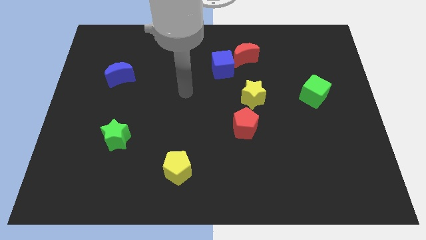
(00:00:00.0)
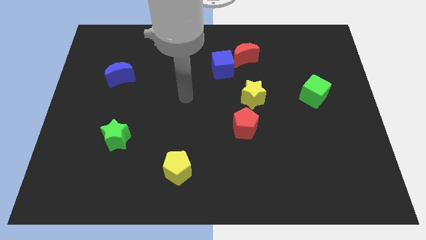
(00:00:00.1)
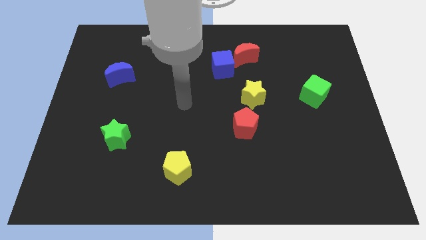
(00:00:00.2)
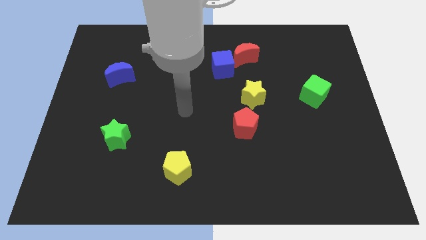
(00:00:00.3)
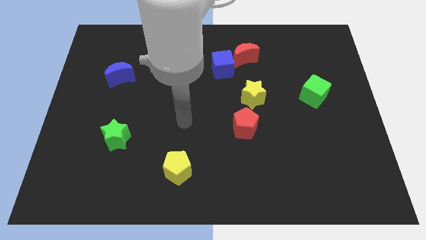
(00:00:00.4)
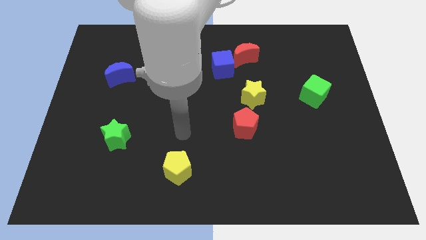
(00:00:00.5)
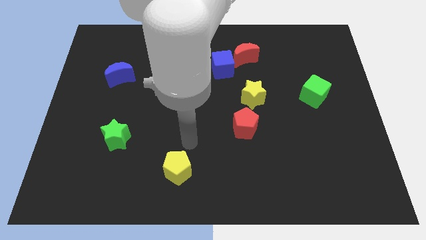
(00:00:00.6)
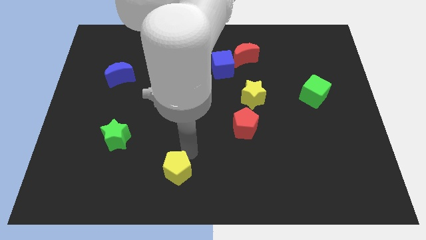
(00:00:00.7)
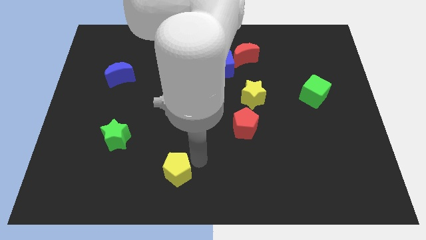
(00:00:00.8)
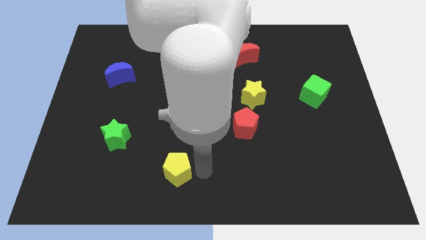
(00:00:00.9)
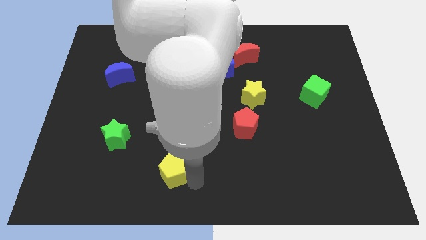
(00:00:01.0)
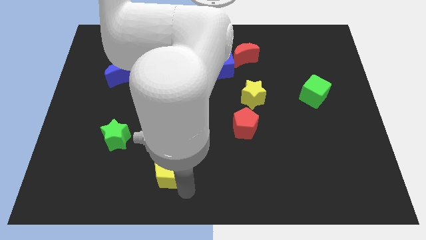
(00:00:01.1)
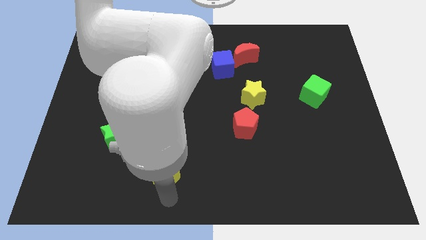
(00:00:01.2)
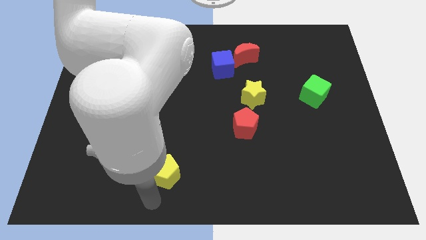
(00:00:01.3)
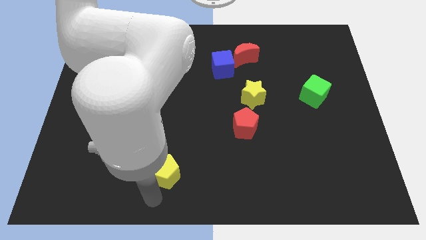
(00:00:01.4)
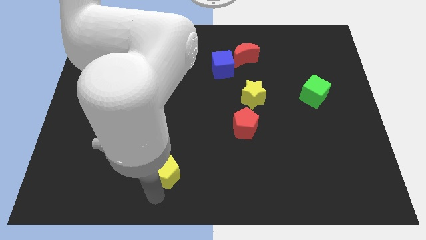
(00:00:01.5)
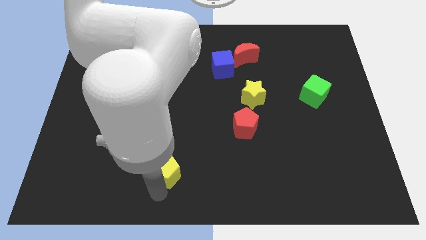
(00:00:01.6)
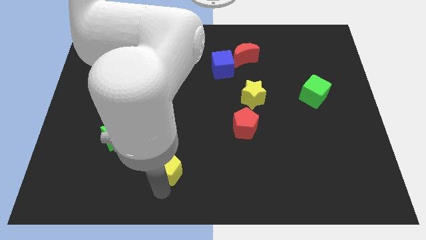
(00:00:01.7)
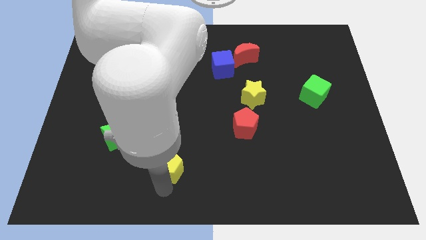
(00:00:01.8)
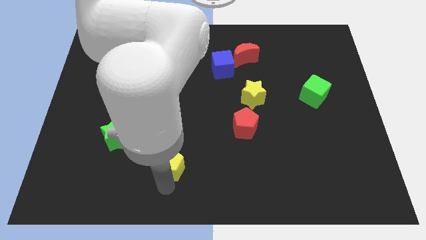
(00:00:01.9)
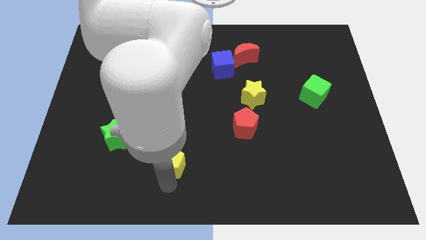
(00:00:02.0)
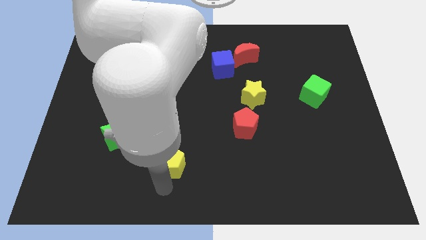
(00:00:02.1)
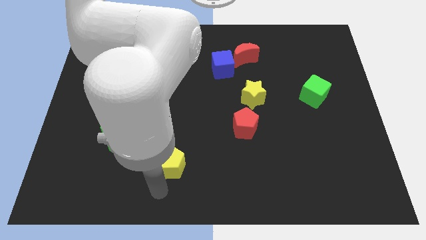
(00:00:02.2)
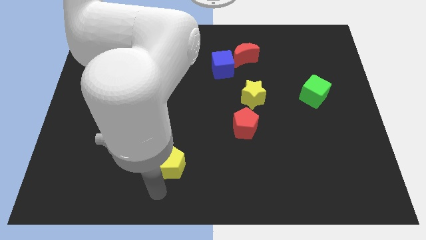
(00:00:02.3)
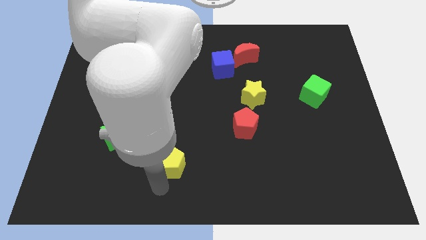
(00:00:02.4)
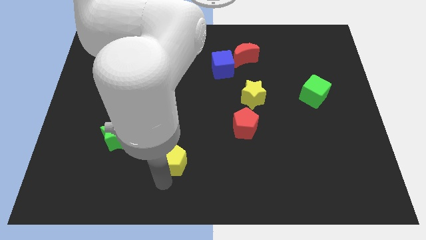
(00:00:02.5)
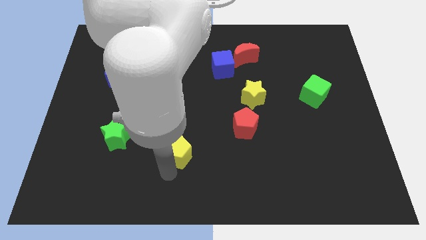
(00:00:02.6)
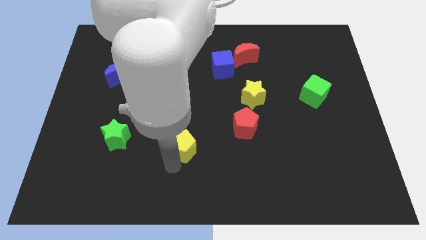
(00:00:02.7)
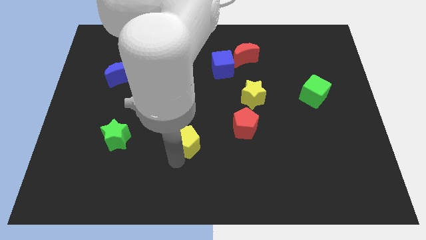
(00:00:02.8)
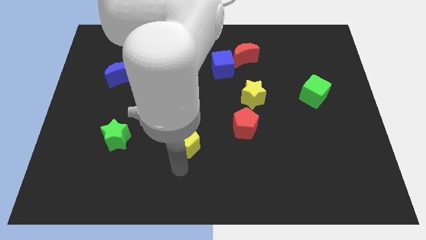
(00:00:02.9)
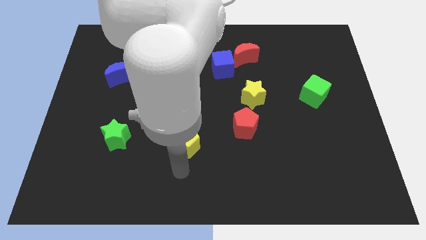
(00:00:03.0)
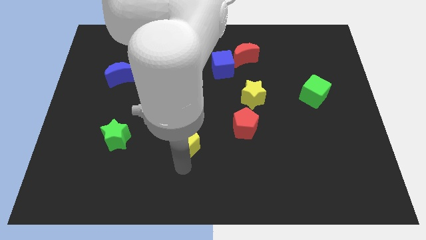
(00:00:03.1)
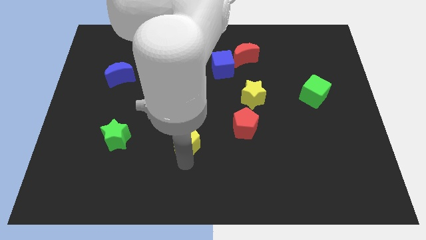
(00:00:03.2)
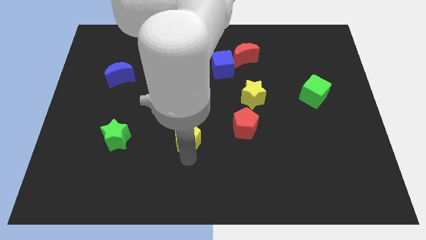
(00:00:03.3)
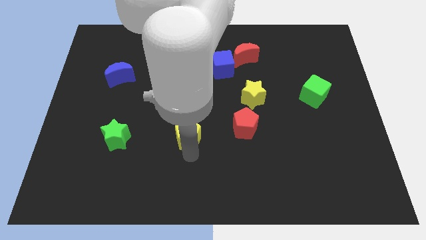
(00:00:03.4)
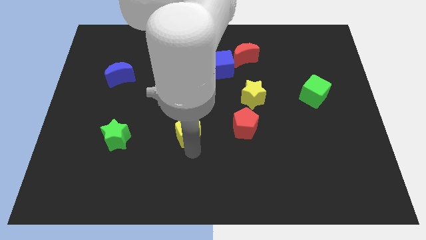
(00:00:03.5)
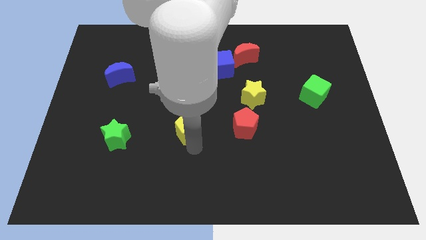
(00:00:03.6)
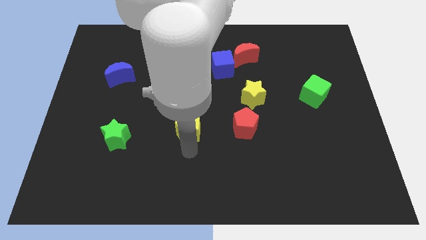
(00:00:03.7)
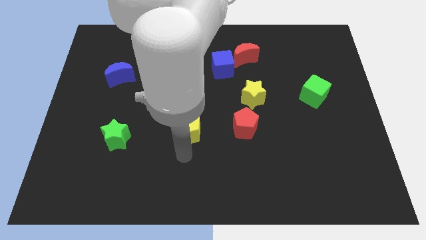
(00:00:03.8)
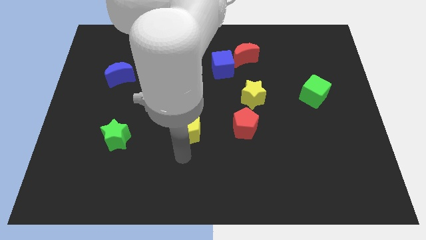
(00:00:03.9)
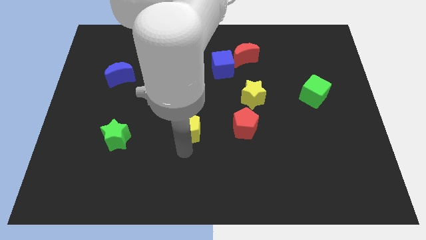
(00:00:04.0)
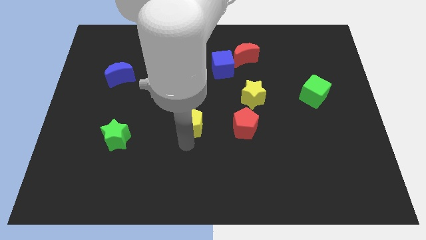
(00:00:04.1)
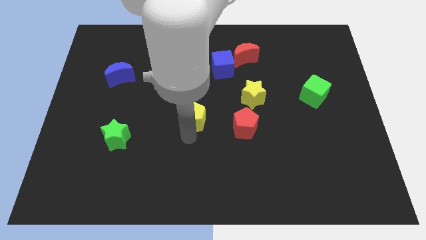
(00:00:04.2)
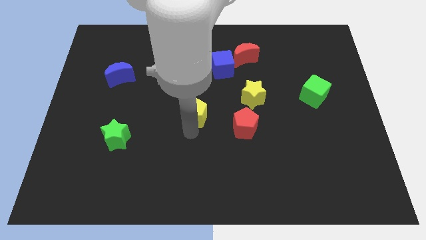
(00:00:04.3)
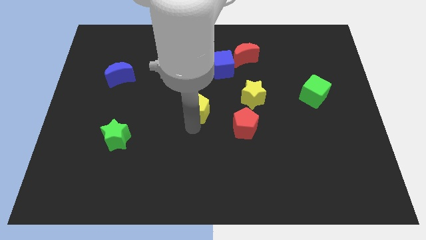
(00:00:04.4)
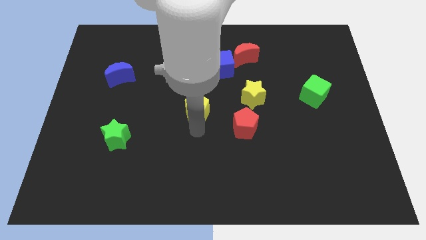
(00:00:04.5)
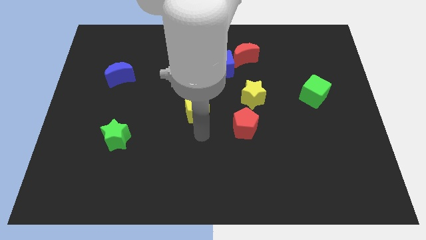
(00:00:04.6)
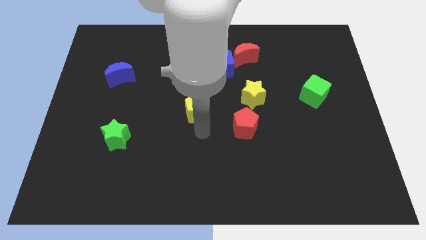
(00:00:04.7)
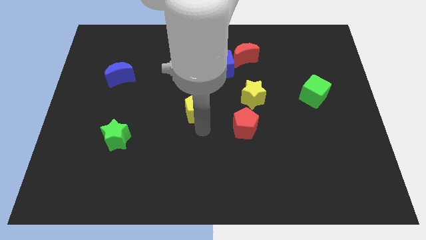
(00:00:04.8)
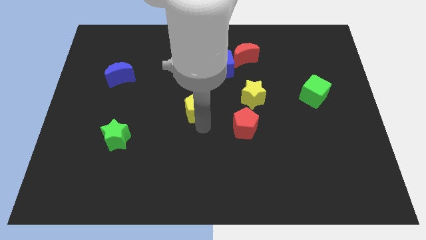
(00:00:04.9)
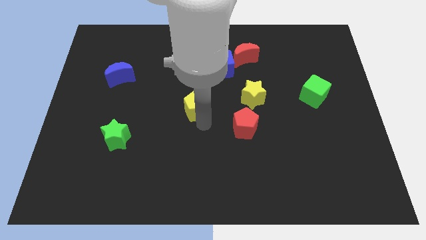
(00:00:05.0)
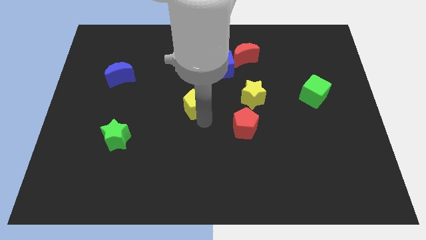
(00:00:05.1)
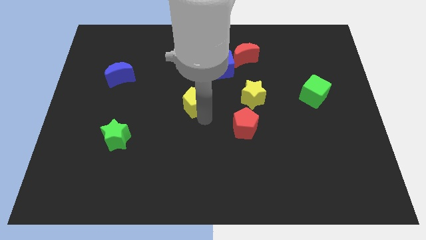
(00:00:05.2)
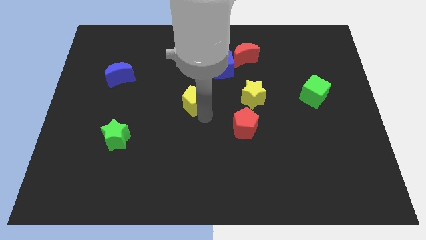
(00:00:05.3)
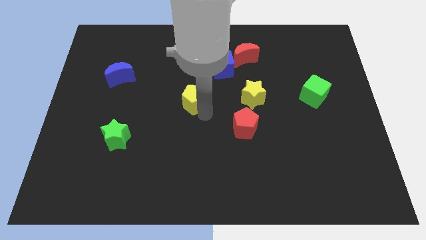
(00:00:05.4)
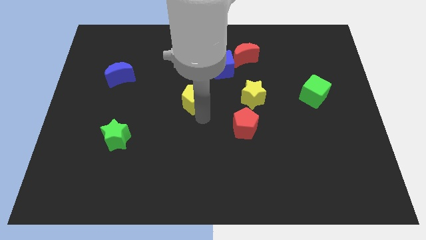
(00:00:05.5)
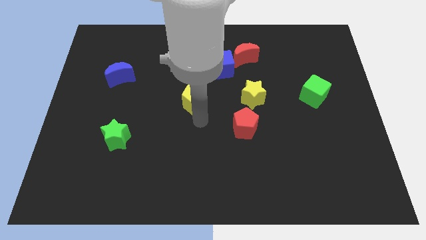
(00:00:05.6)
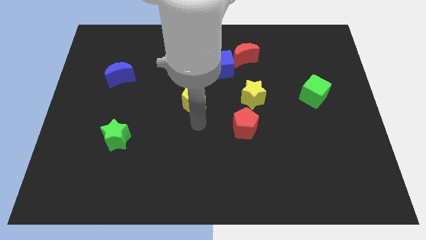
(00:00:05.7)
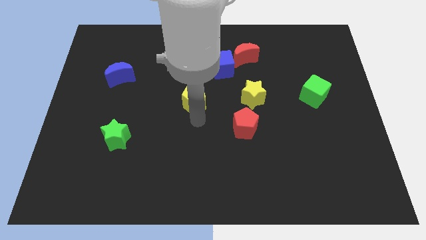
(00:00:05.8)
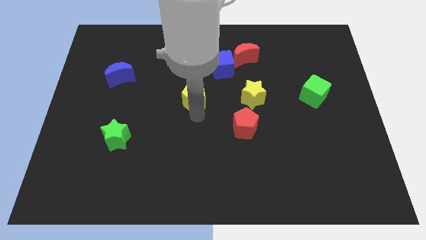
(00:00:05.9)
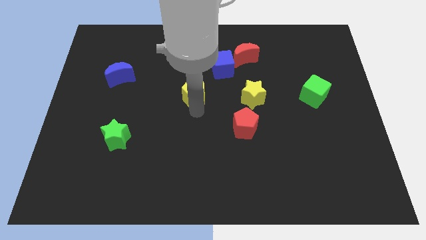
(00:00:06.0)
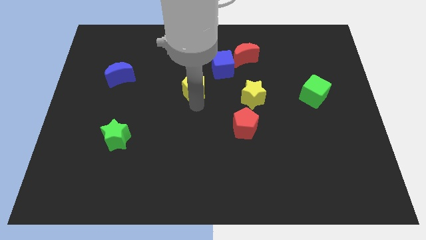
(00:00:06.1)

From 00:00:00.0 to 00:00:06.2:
slide the yellow pentagon upwards

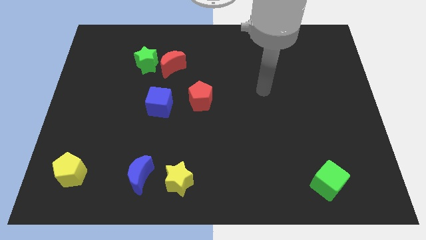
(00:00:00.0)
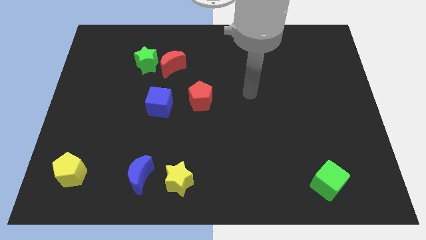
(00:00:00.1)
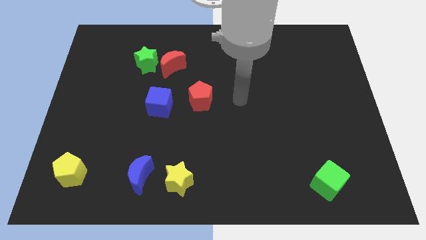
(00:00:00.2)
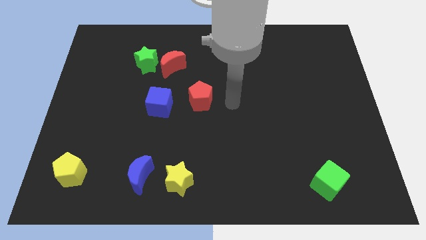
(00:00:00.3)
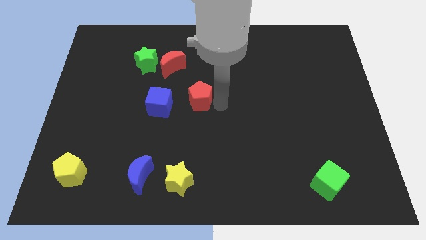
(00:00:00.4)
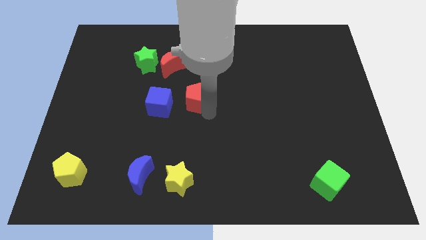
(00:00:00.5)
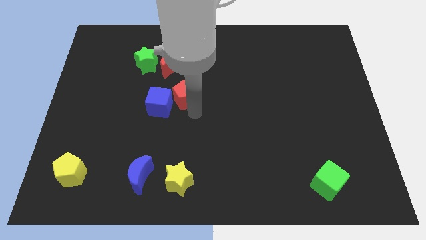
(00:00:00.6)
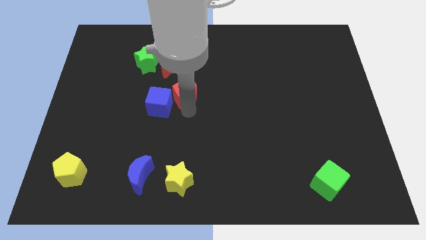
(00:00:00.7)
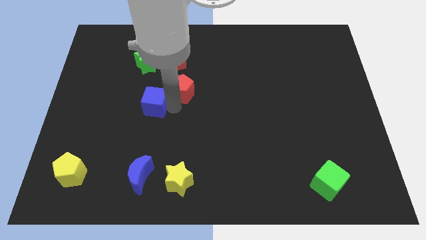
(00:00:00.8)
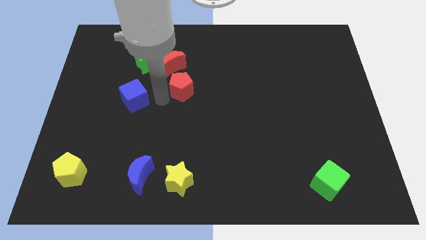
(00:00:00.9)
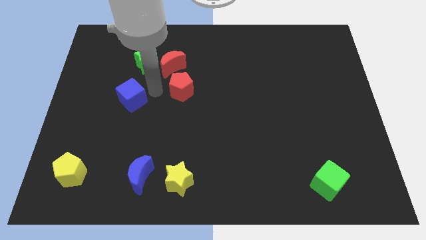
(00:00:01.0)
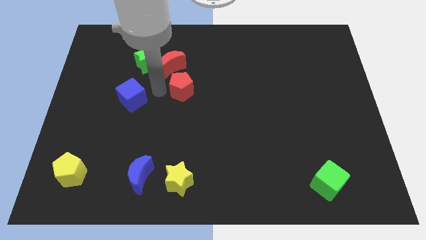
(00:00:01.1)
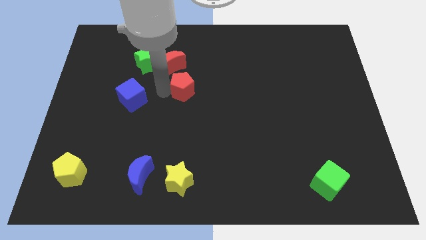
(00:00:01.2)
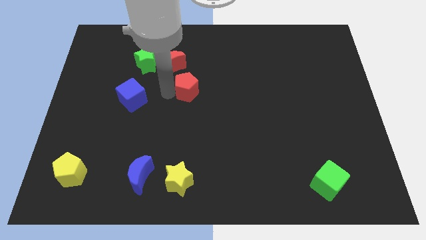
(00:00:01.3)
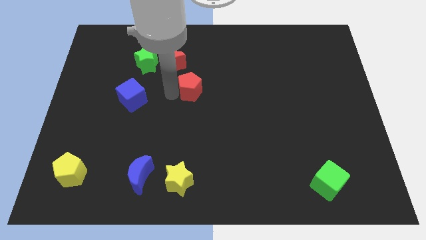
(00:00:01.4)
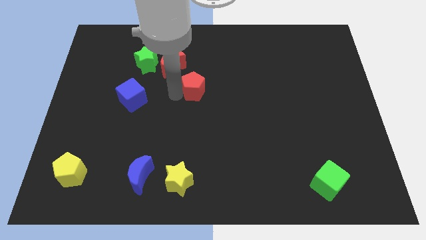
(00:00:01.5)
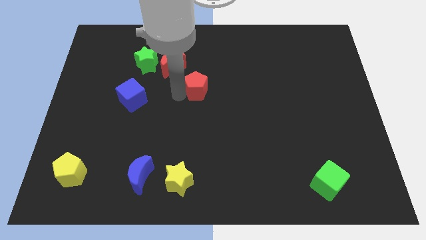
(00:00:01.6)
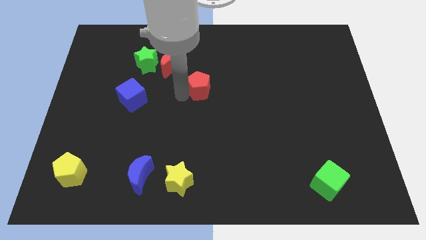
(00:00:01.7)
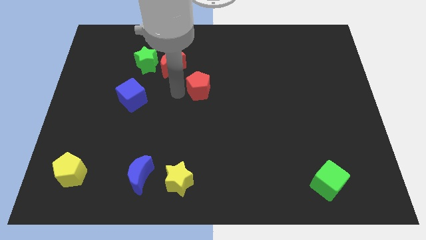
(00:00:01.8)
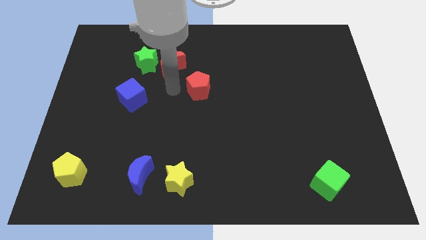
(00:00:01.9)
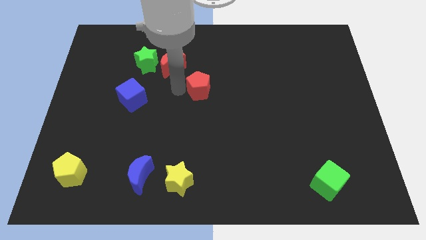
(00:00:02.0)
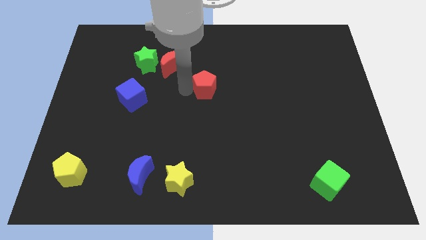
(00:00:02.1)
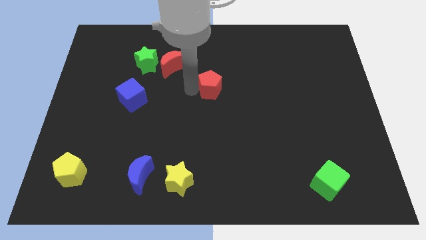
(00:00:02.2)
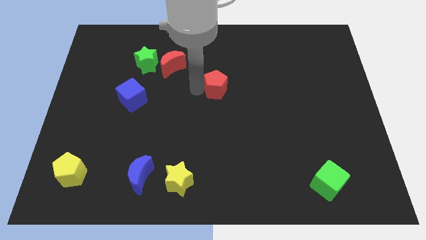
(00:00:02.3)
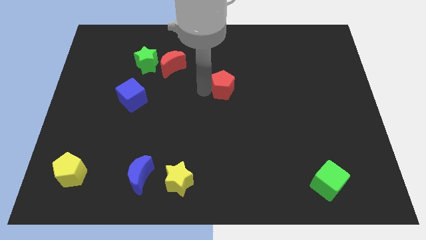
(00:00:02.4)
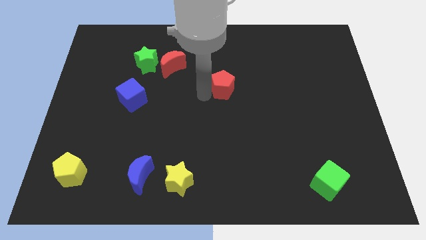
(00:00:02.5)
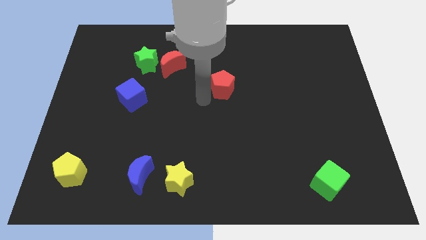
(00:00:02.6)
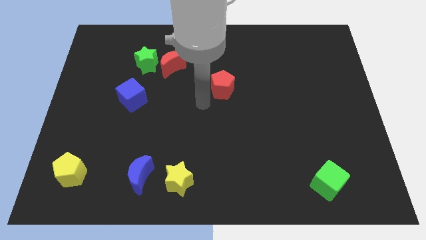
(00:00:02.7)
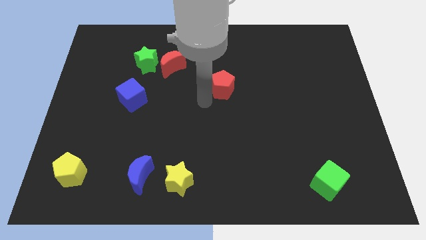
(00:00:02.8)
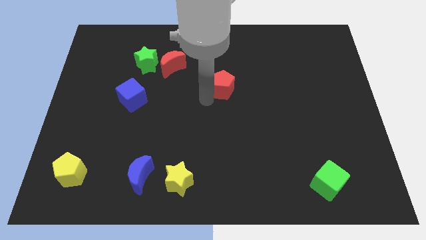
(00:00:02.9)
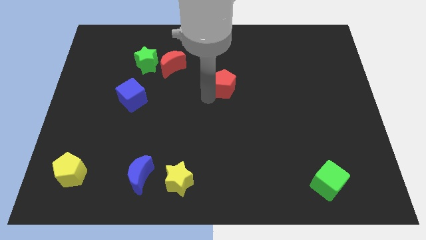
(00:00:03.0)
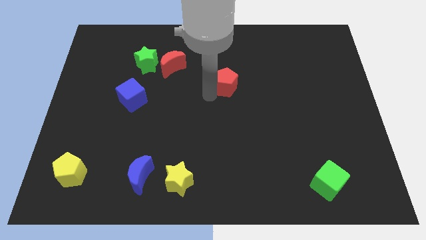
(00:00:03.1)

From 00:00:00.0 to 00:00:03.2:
slide the red pentagon slightly upwards and right
